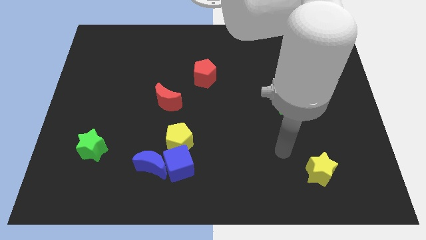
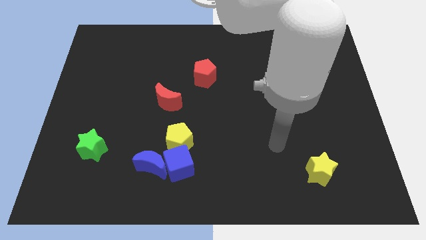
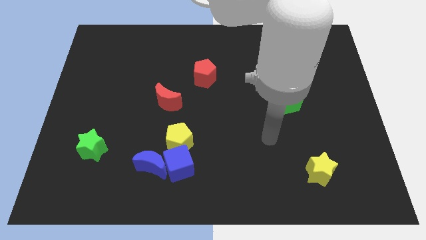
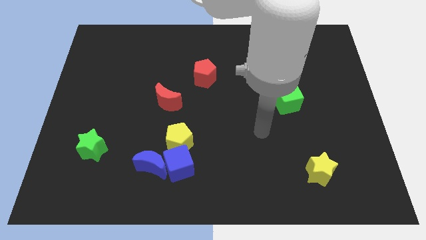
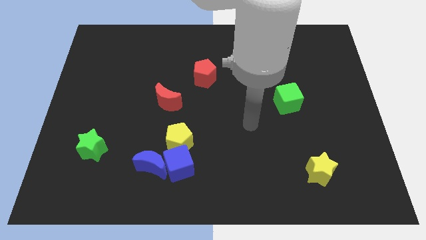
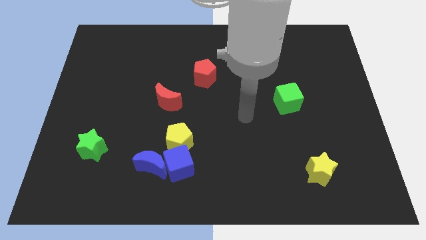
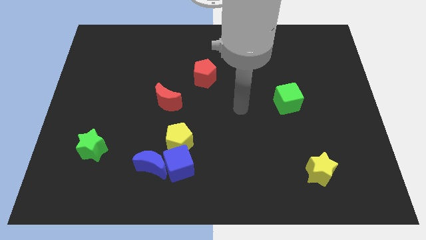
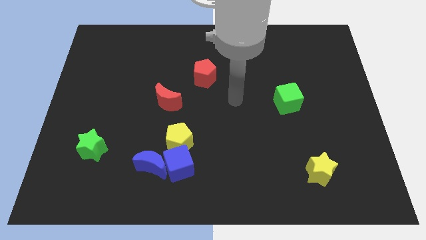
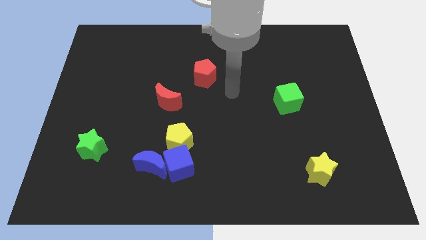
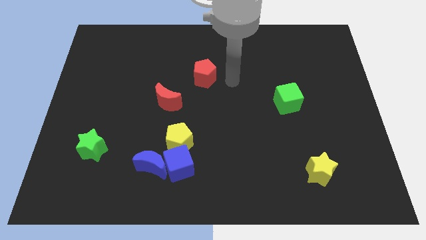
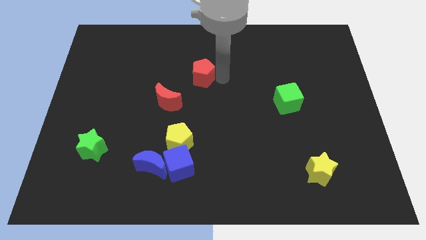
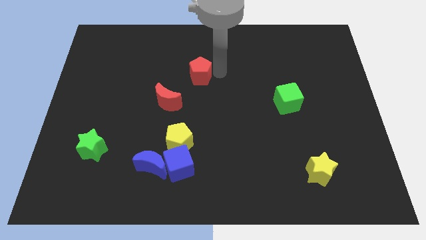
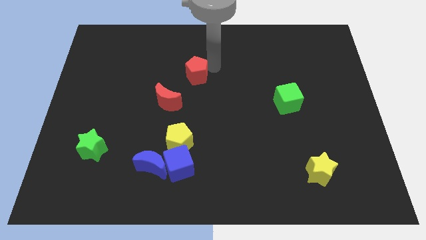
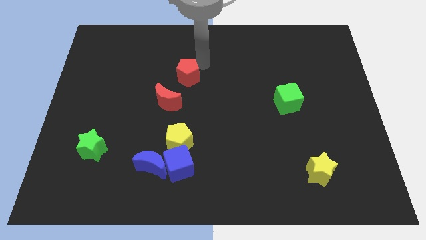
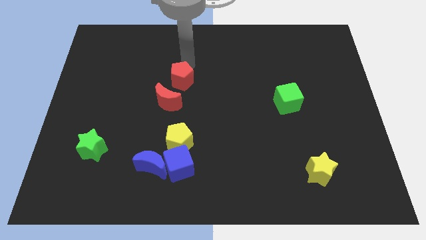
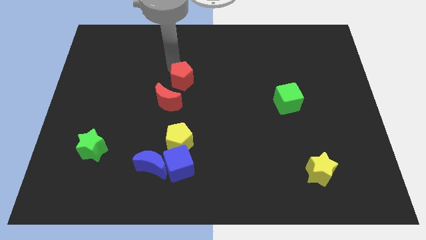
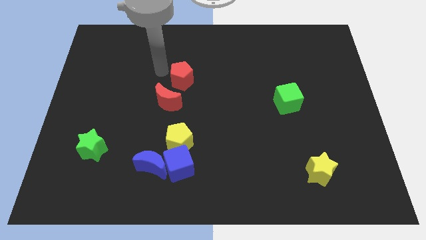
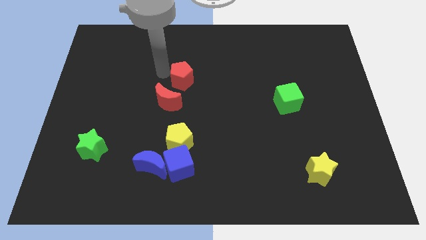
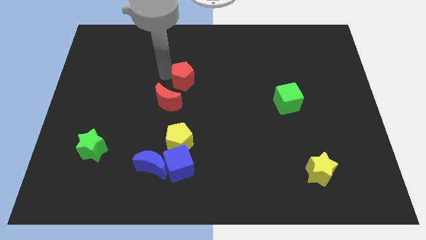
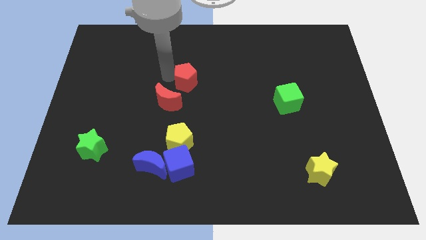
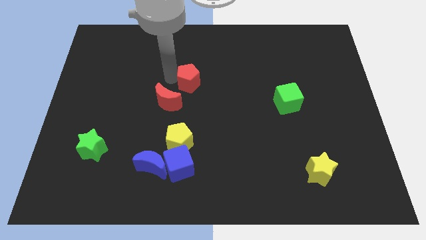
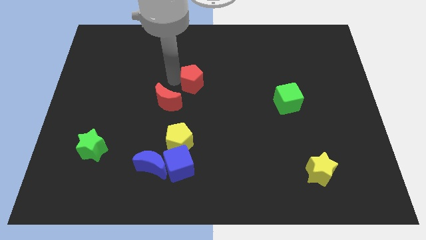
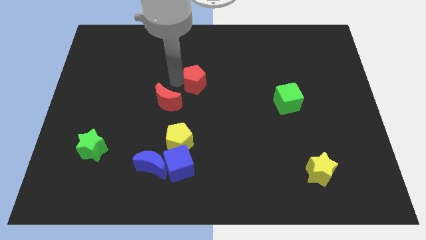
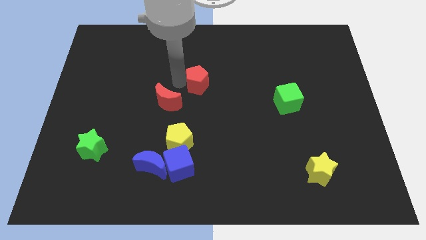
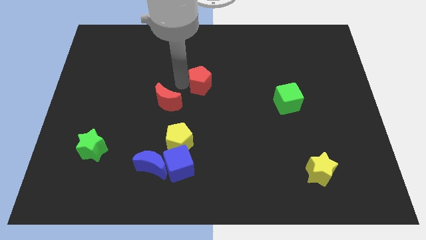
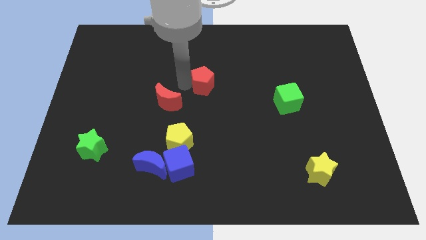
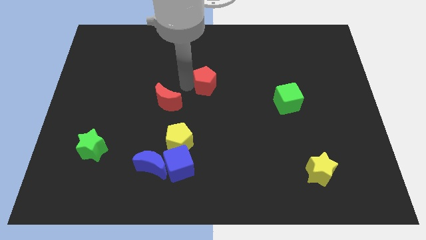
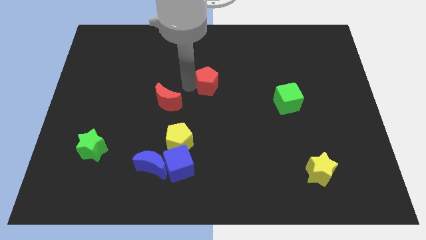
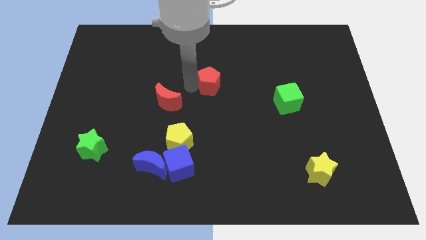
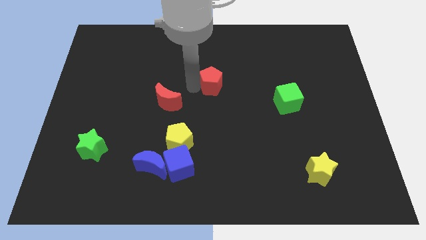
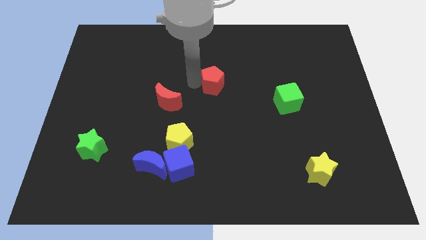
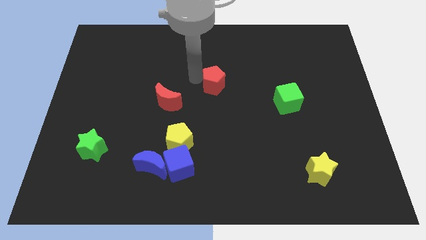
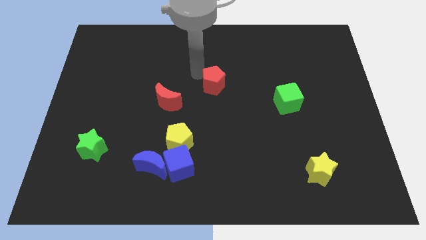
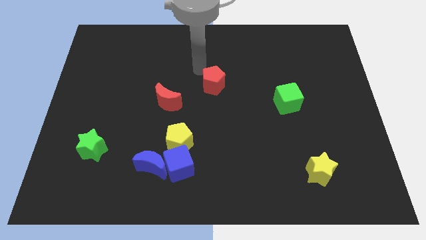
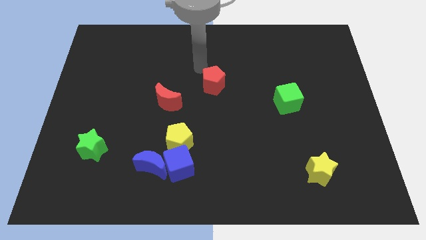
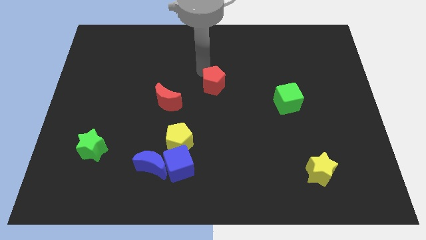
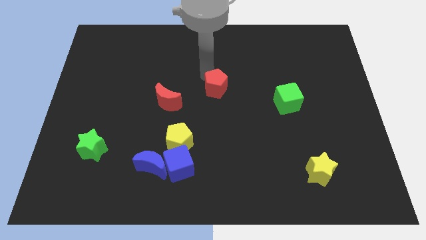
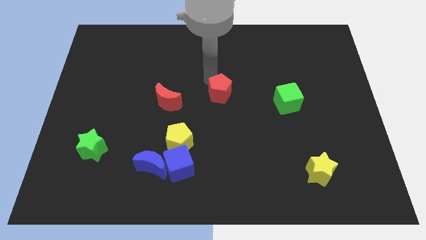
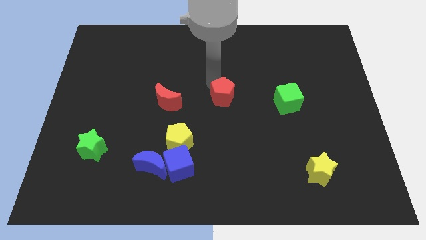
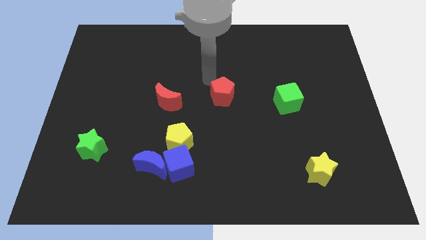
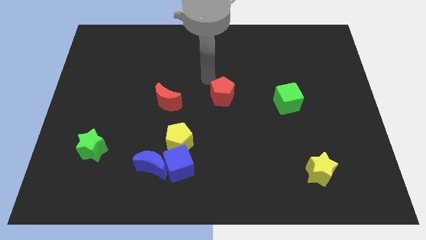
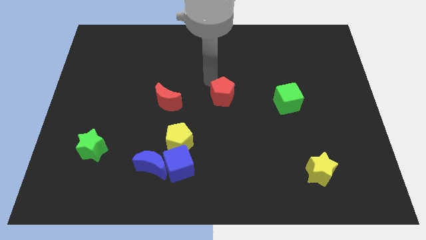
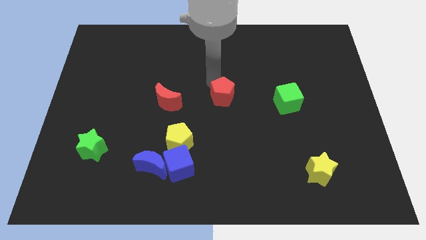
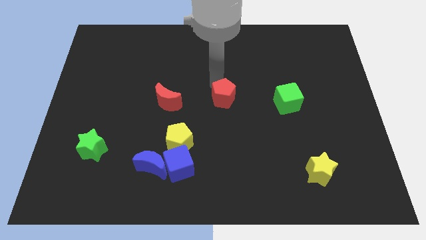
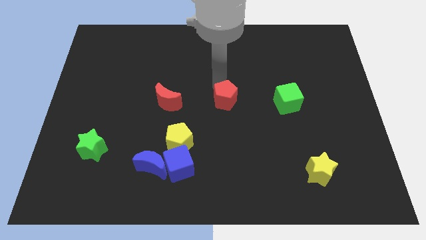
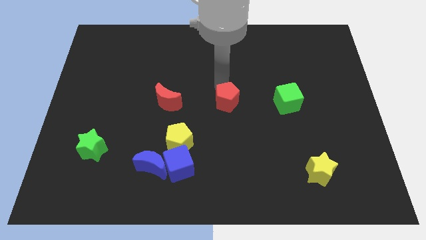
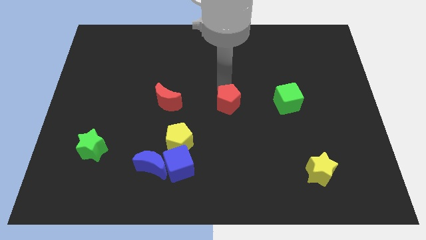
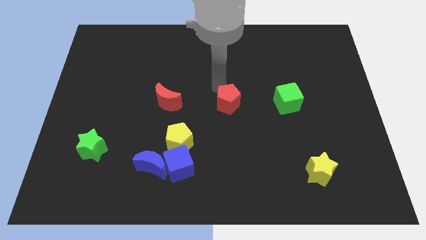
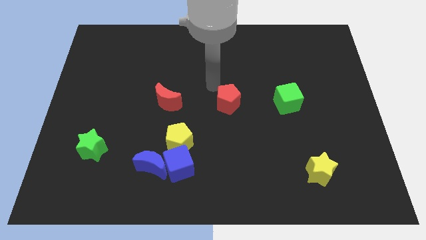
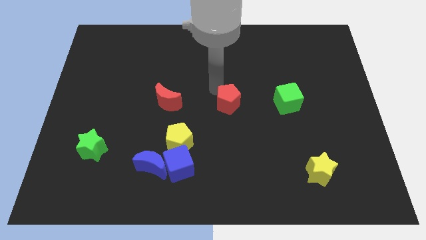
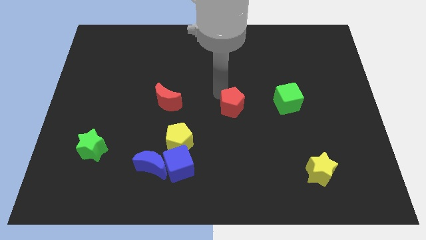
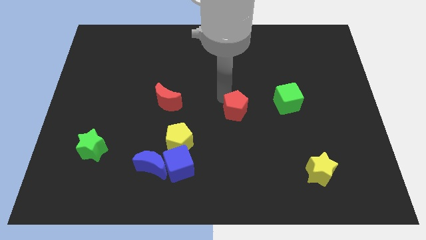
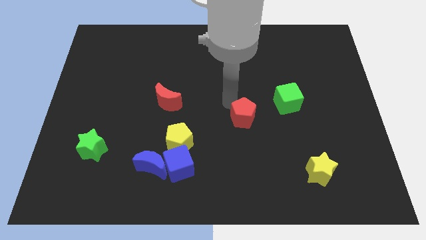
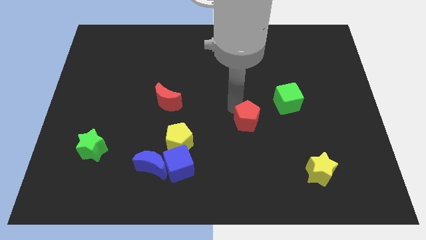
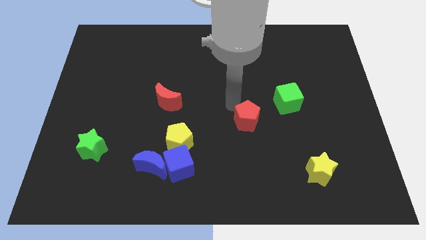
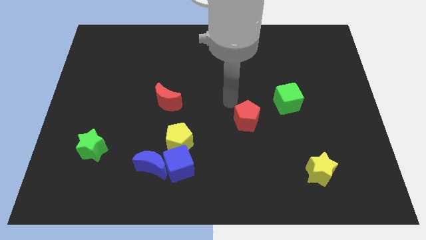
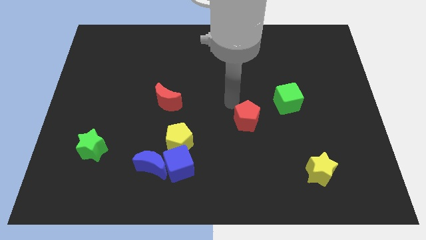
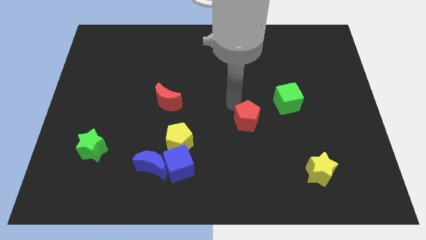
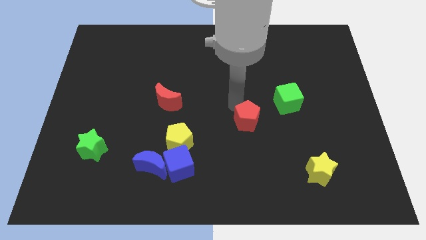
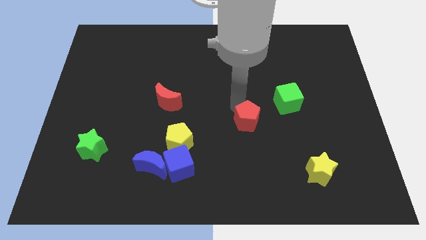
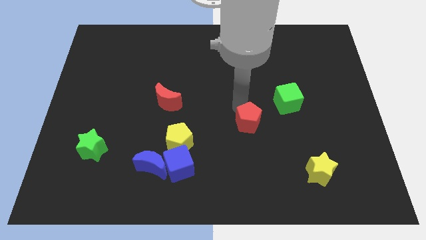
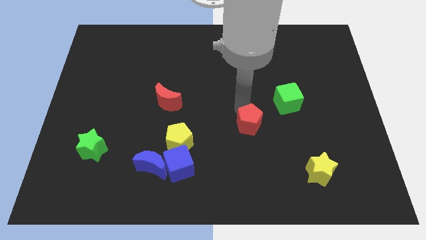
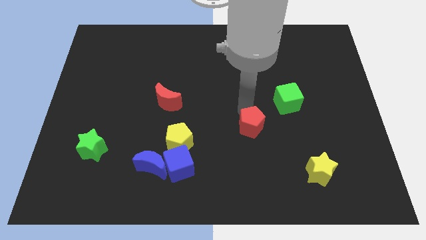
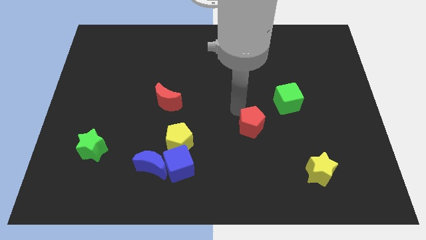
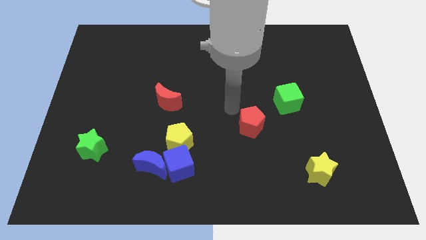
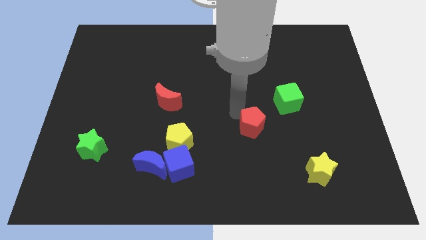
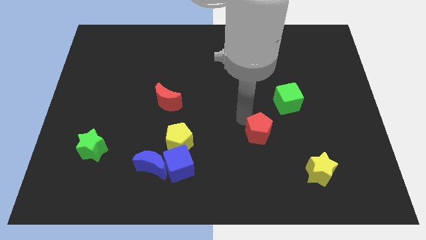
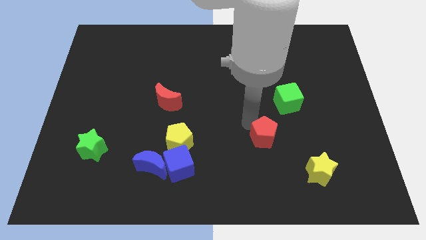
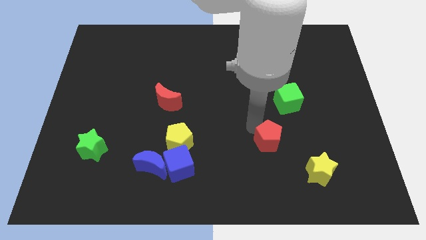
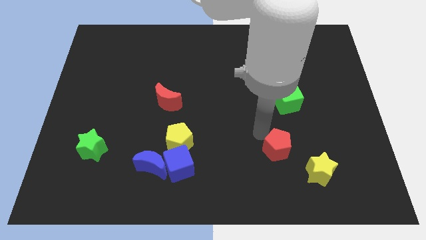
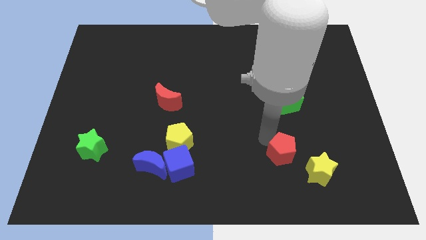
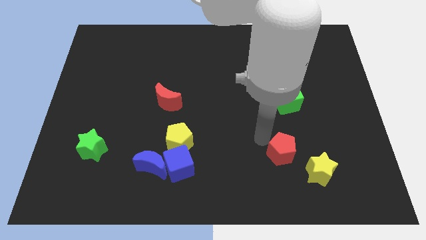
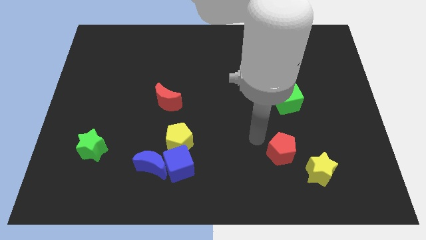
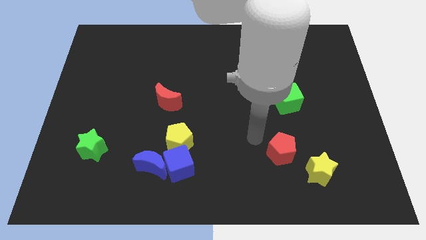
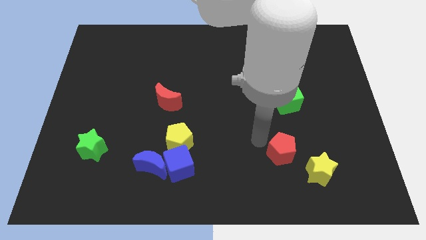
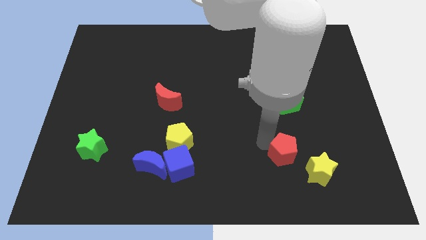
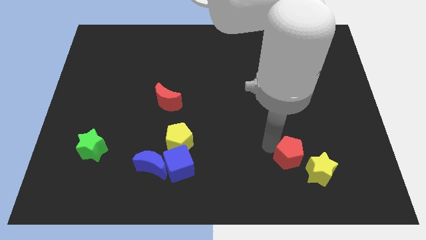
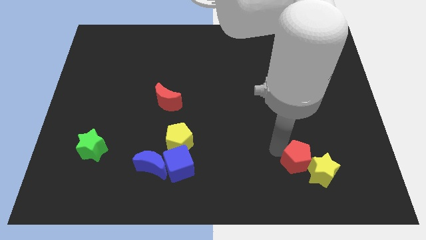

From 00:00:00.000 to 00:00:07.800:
put the red pentagon next to the yellow star

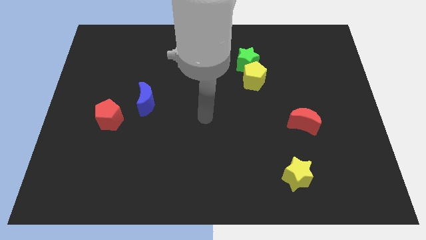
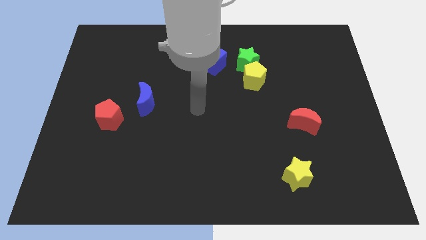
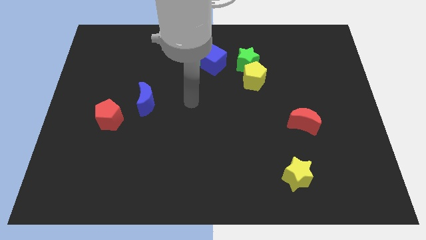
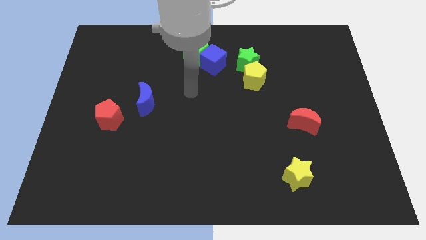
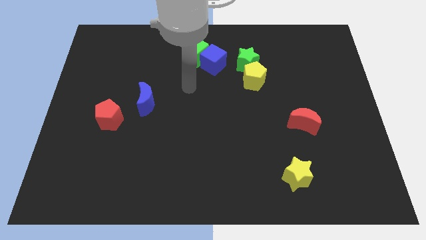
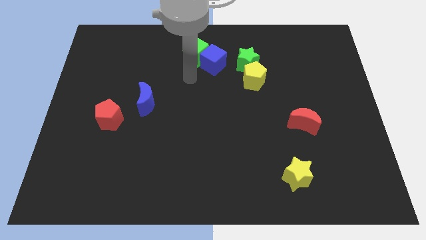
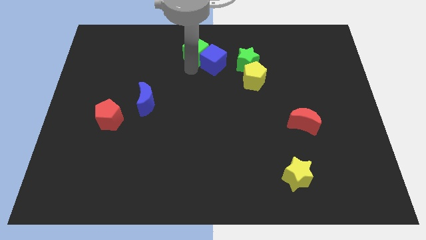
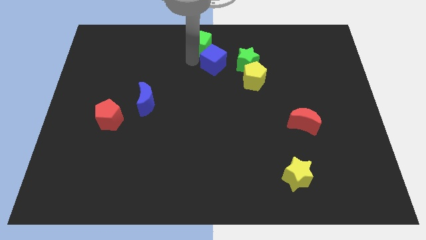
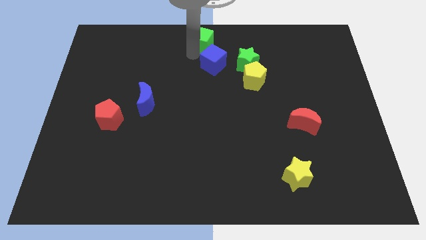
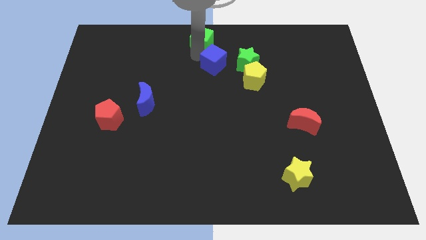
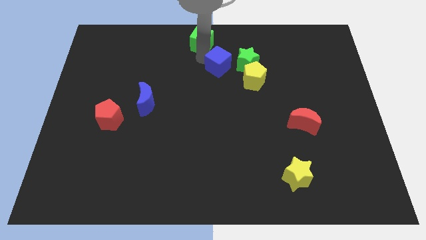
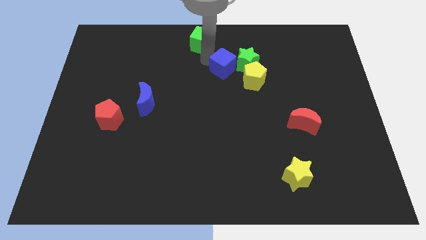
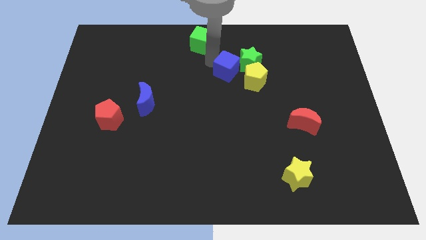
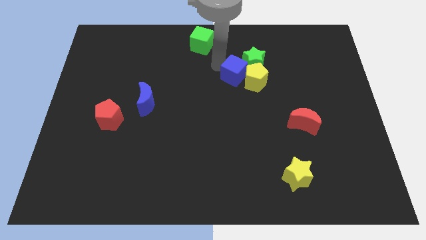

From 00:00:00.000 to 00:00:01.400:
slide the blue cube next to the yellow pentagon
